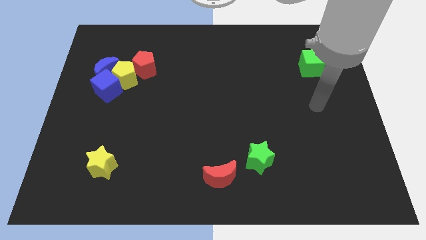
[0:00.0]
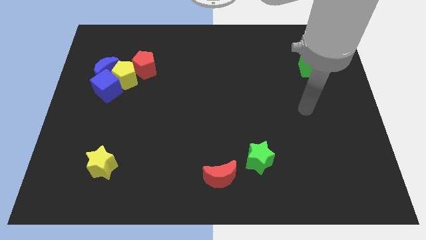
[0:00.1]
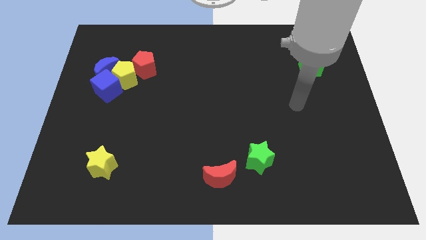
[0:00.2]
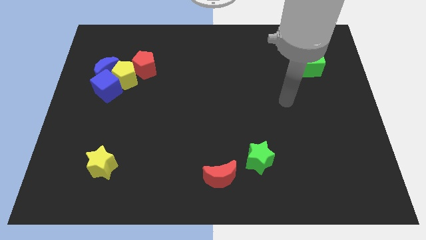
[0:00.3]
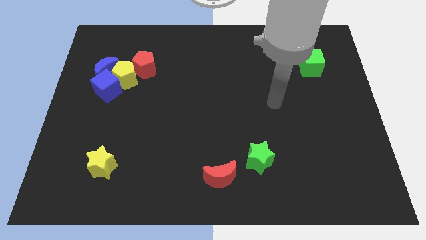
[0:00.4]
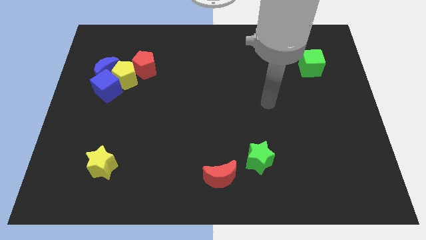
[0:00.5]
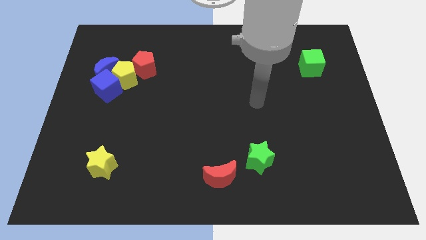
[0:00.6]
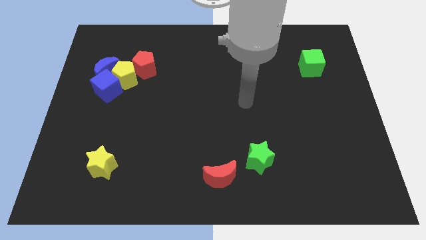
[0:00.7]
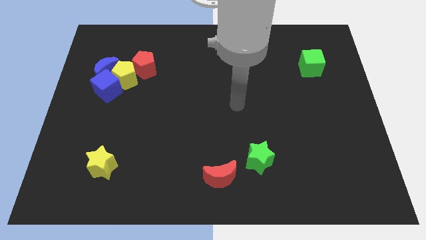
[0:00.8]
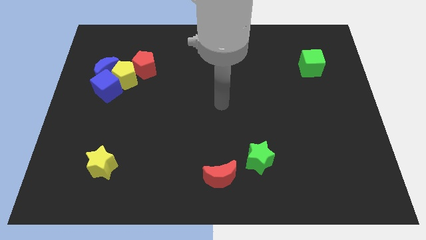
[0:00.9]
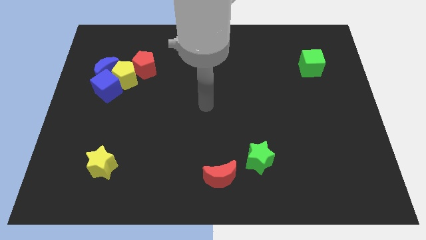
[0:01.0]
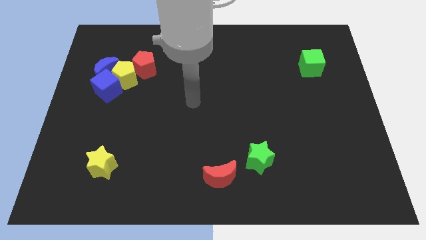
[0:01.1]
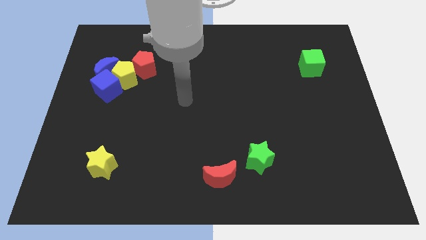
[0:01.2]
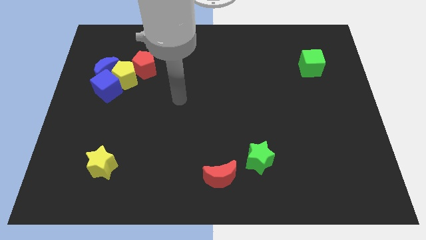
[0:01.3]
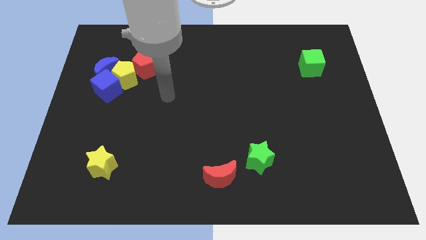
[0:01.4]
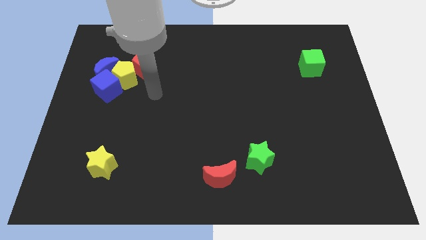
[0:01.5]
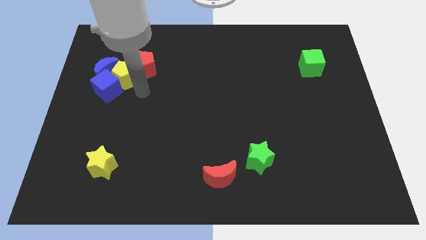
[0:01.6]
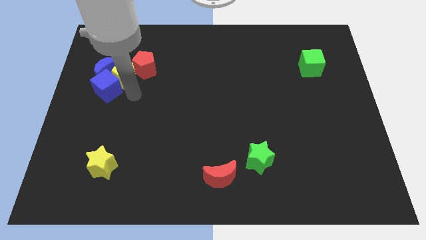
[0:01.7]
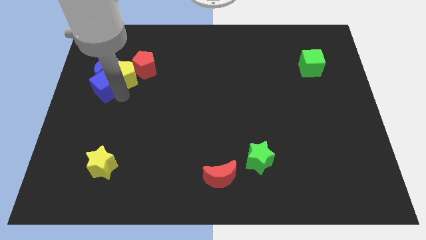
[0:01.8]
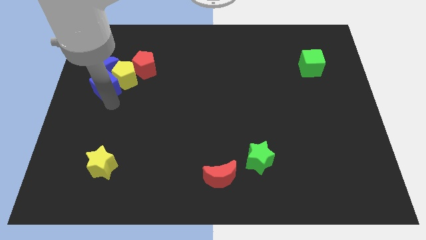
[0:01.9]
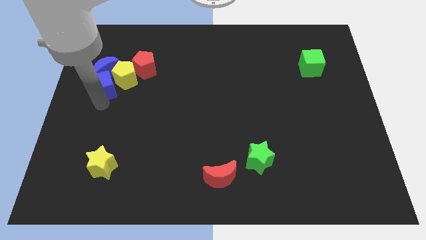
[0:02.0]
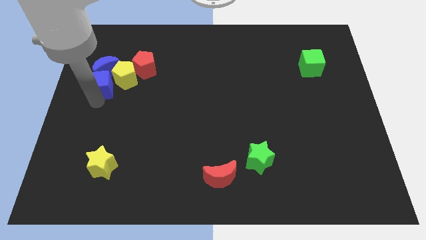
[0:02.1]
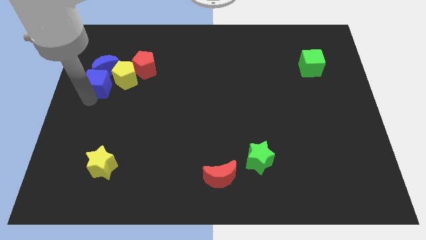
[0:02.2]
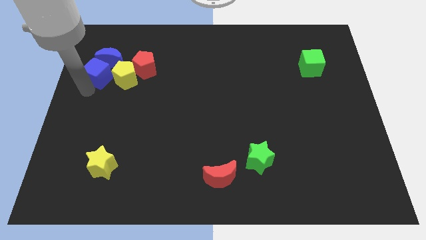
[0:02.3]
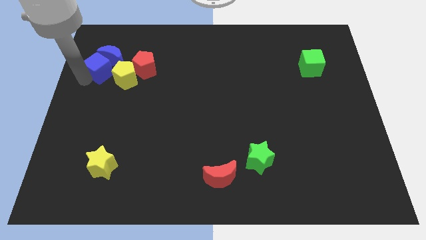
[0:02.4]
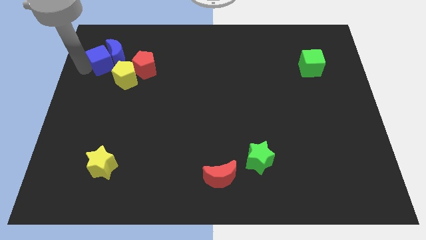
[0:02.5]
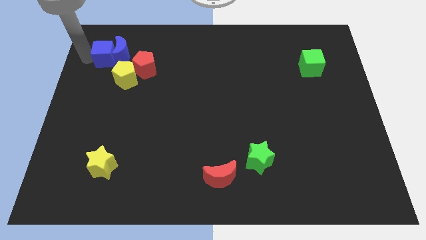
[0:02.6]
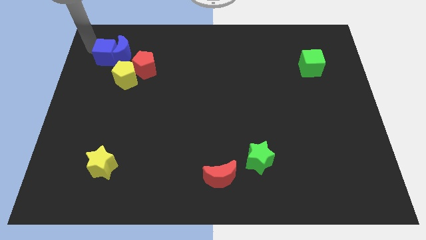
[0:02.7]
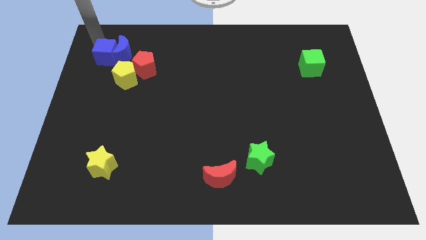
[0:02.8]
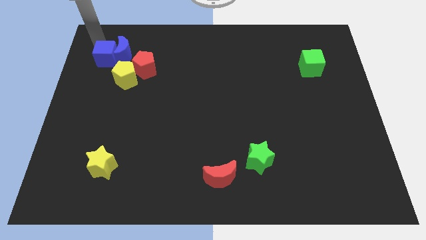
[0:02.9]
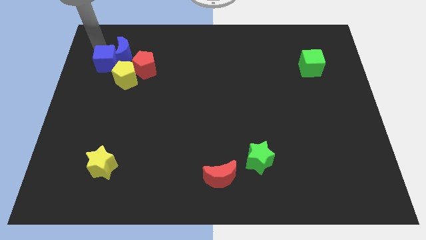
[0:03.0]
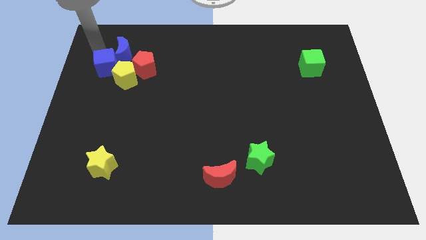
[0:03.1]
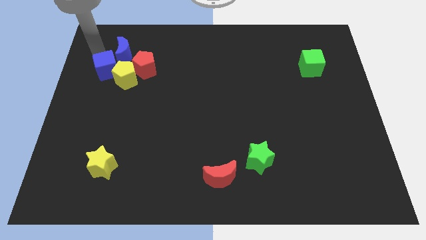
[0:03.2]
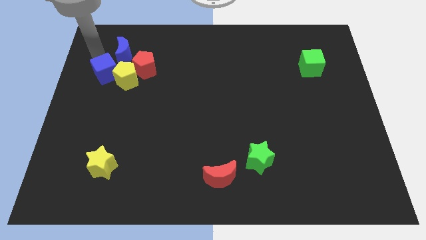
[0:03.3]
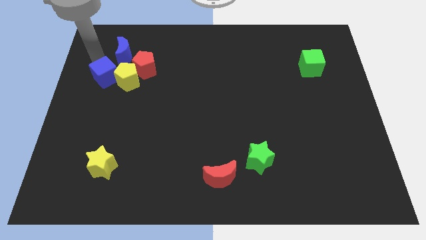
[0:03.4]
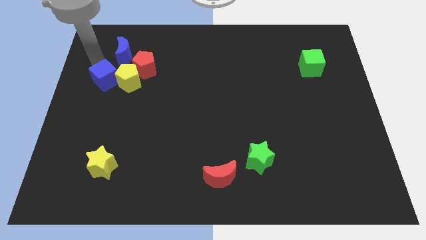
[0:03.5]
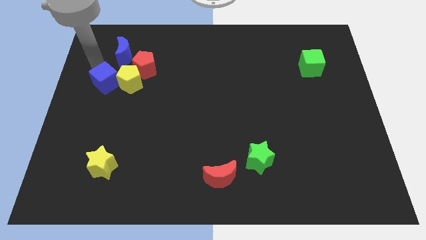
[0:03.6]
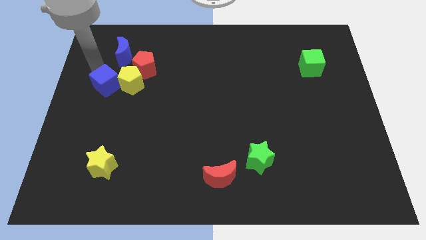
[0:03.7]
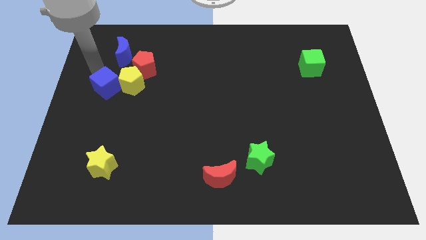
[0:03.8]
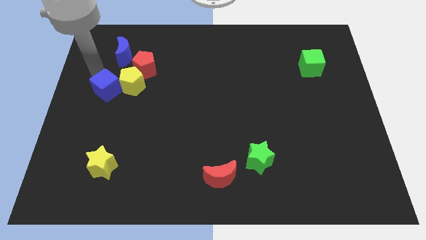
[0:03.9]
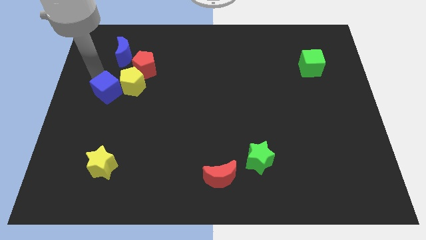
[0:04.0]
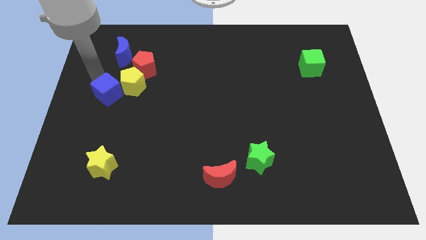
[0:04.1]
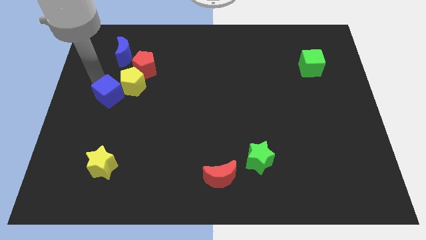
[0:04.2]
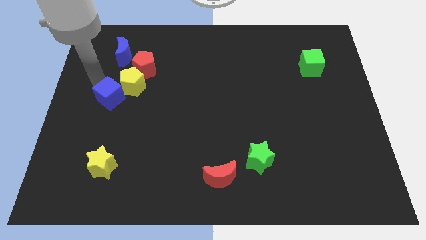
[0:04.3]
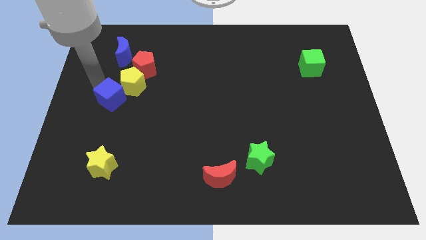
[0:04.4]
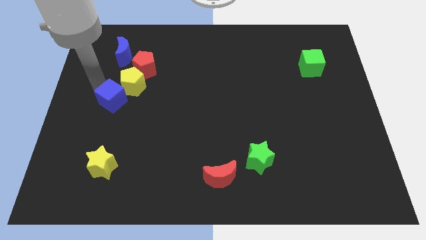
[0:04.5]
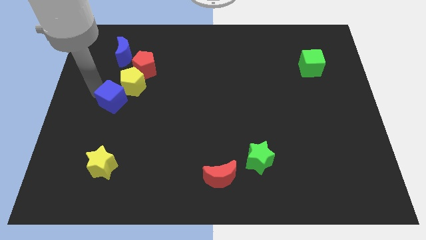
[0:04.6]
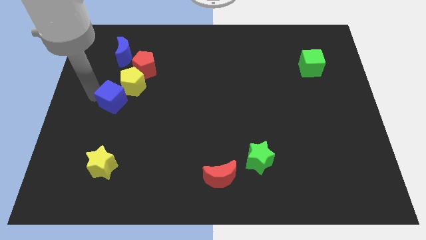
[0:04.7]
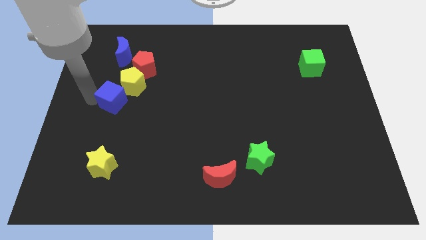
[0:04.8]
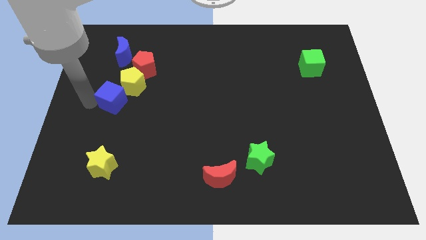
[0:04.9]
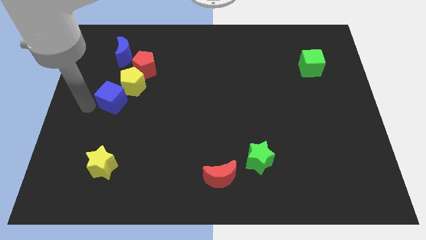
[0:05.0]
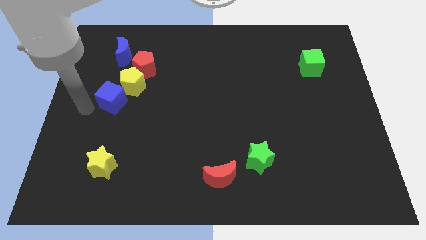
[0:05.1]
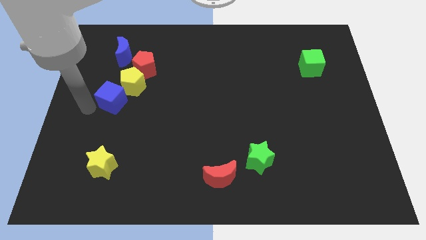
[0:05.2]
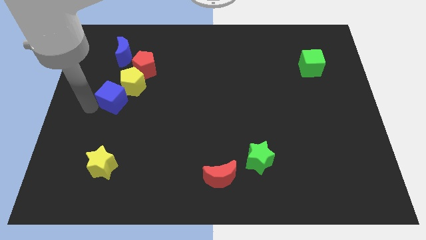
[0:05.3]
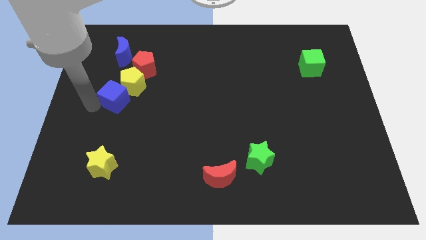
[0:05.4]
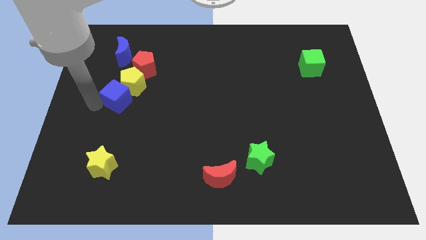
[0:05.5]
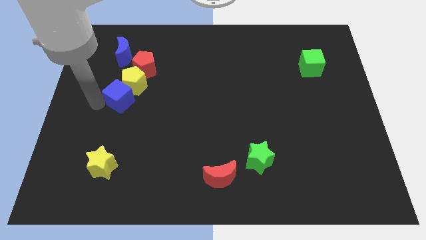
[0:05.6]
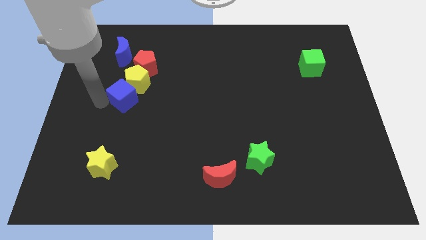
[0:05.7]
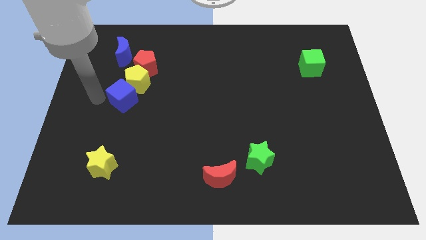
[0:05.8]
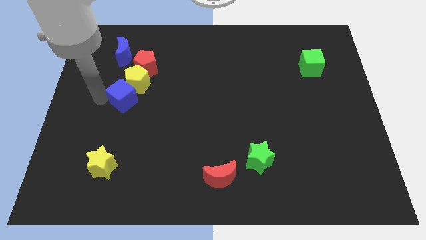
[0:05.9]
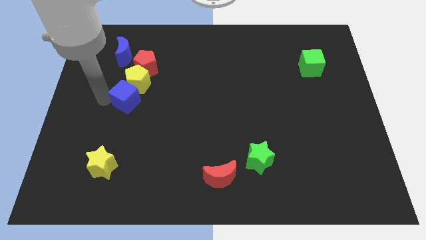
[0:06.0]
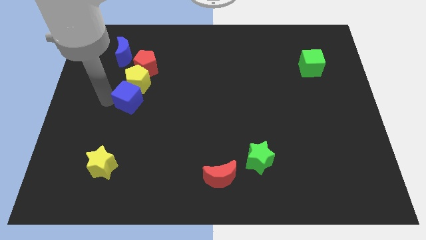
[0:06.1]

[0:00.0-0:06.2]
move the blue cube diagonally down and to the right of the yellow pentagon

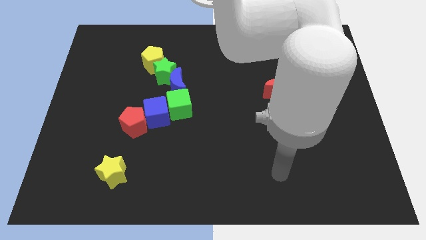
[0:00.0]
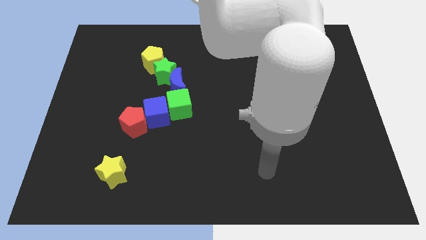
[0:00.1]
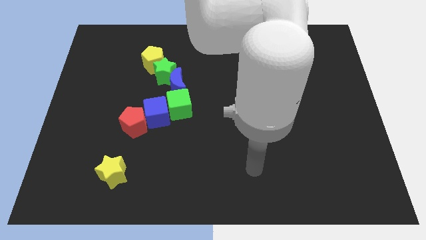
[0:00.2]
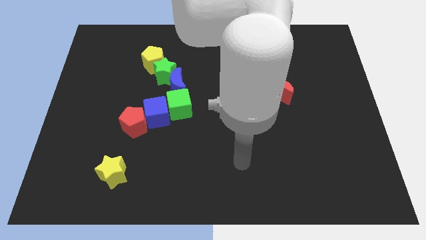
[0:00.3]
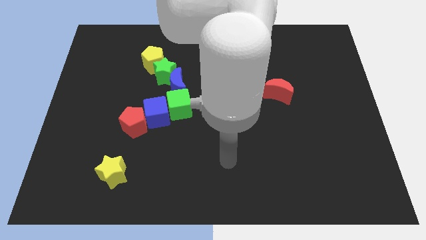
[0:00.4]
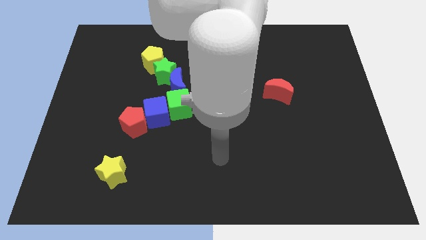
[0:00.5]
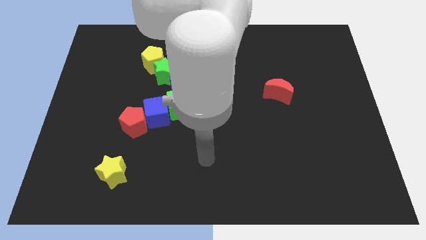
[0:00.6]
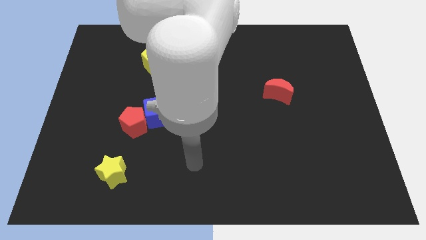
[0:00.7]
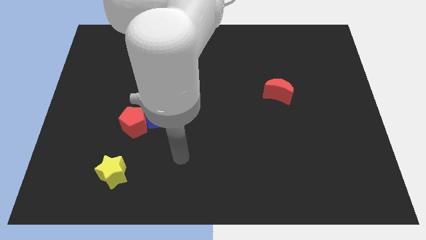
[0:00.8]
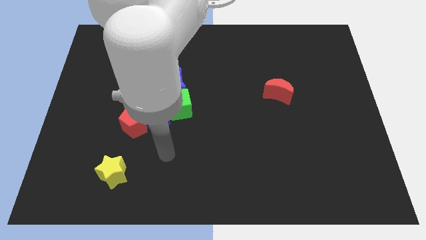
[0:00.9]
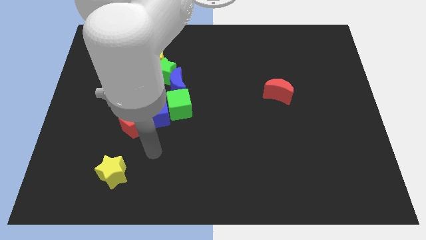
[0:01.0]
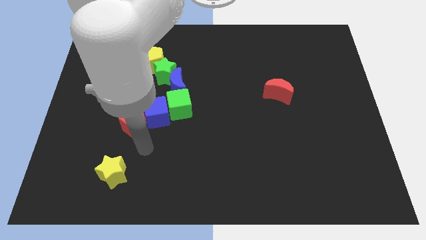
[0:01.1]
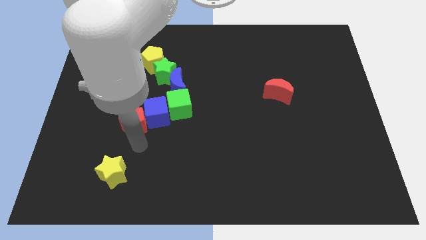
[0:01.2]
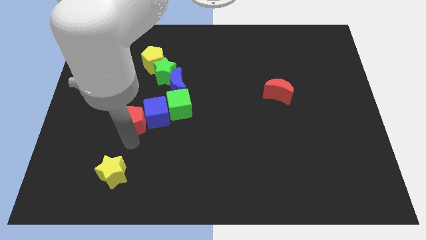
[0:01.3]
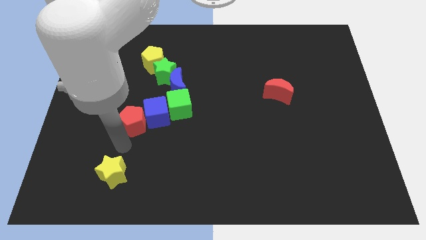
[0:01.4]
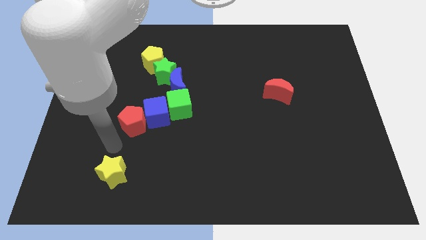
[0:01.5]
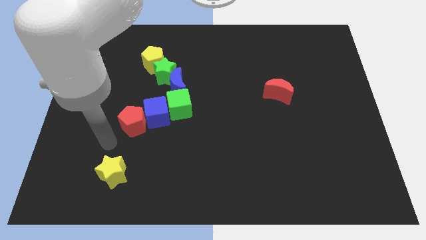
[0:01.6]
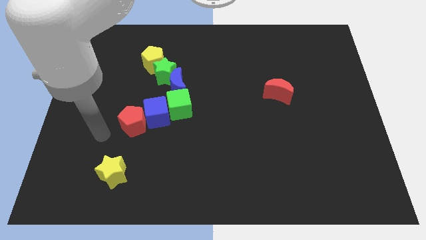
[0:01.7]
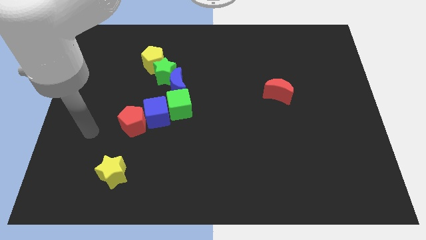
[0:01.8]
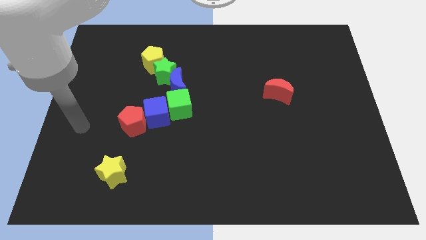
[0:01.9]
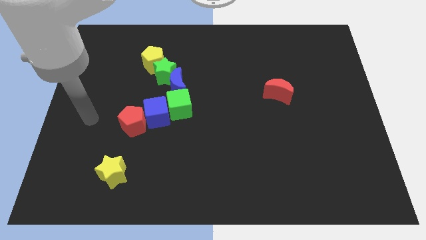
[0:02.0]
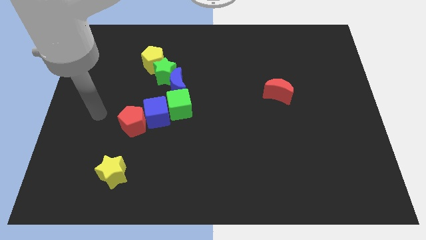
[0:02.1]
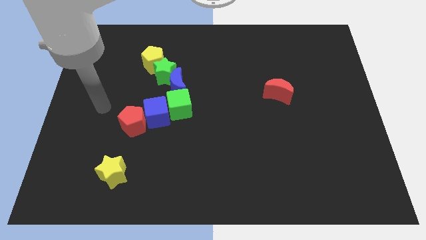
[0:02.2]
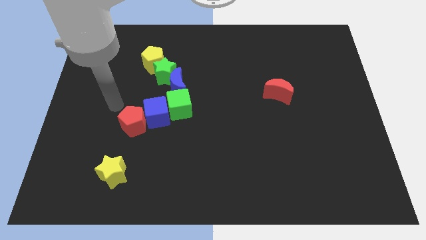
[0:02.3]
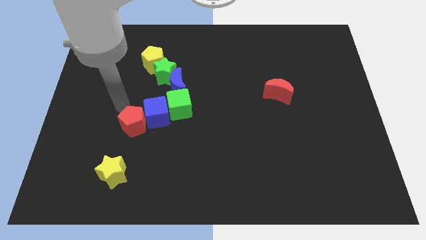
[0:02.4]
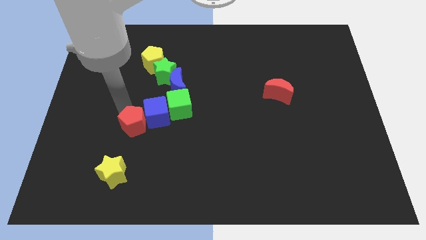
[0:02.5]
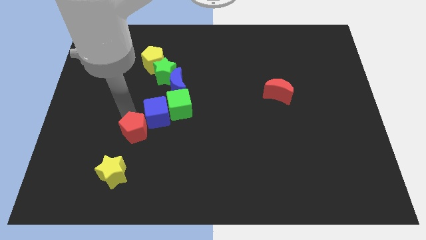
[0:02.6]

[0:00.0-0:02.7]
move the red pentagon below the blue cube
